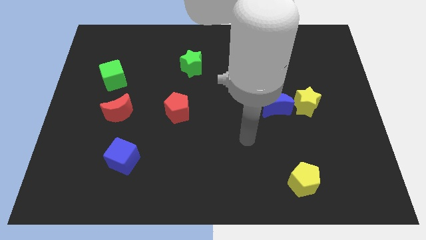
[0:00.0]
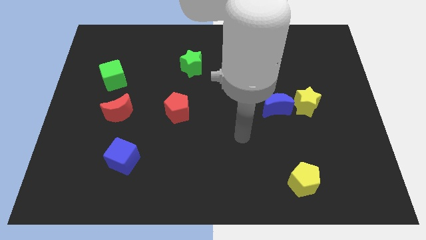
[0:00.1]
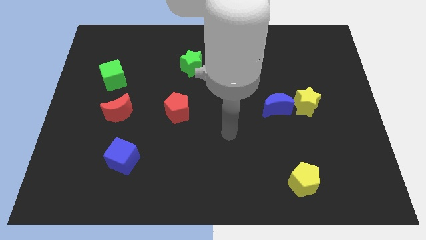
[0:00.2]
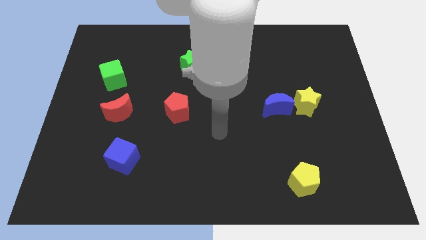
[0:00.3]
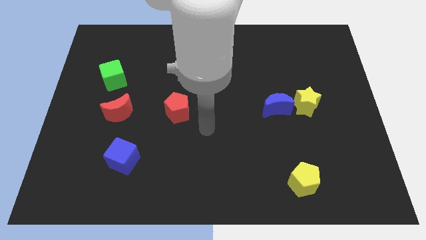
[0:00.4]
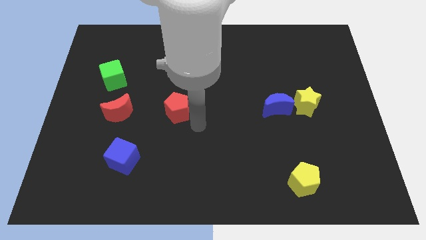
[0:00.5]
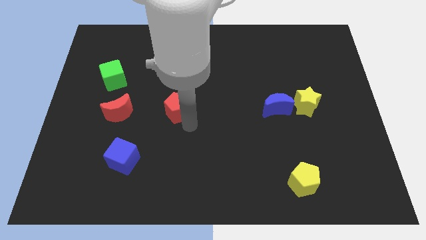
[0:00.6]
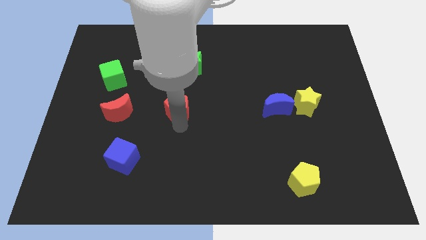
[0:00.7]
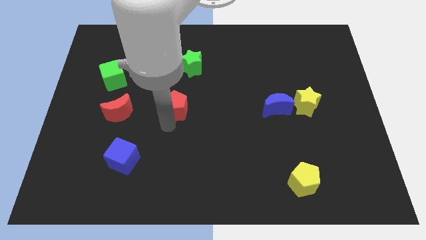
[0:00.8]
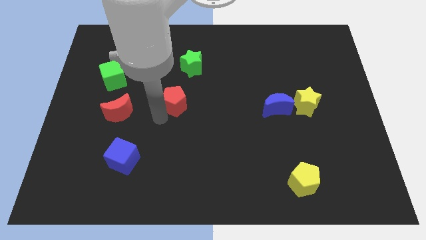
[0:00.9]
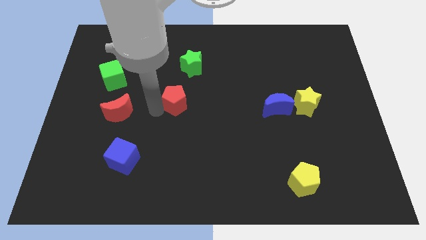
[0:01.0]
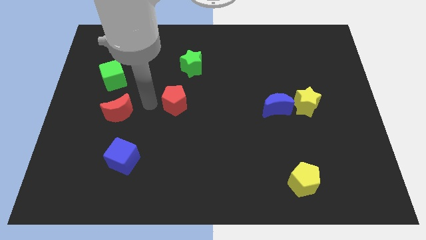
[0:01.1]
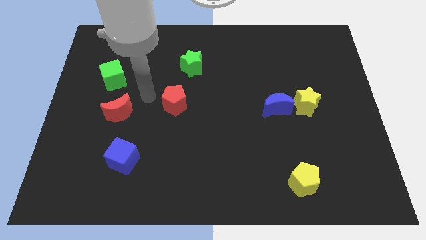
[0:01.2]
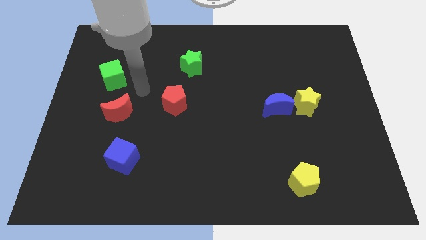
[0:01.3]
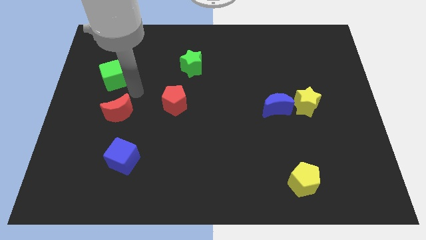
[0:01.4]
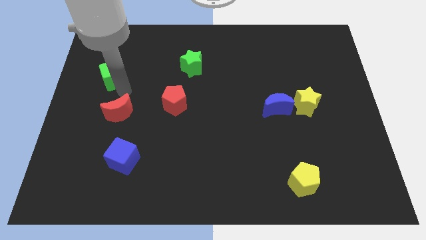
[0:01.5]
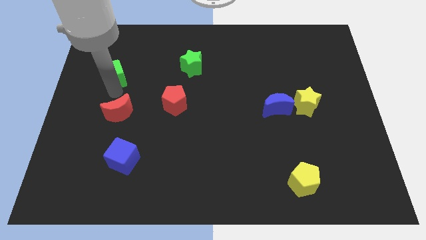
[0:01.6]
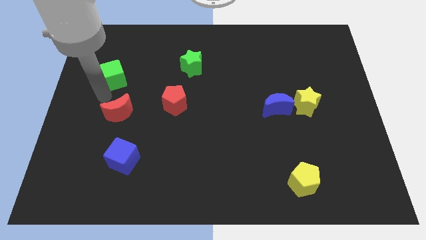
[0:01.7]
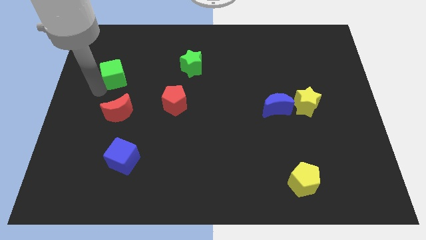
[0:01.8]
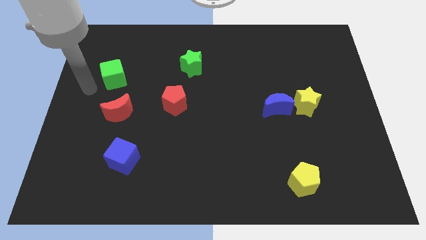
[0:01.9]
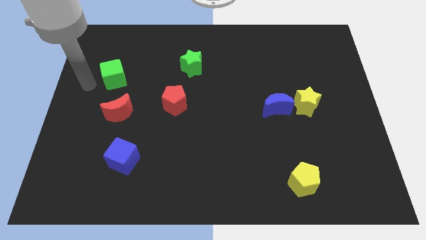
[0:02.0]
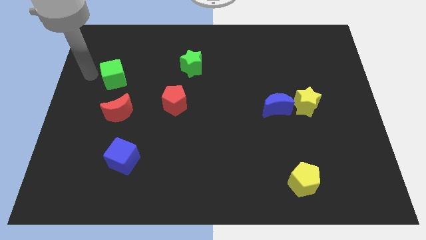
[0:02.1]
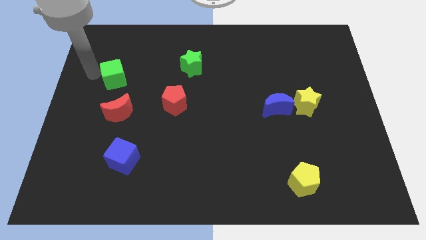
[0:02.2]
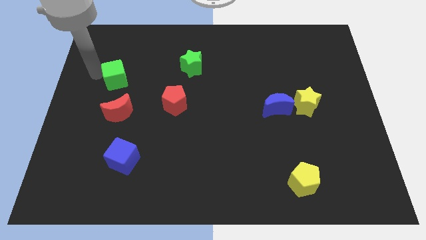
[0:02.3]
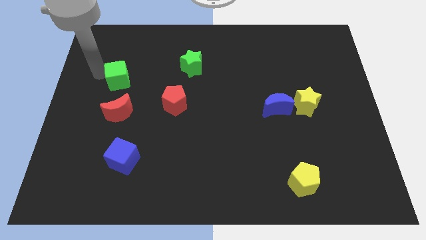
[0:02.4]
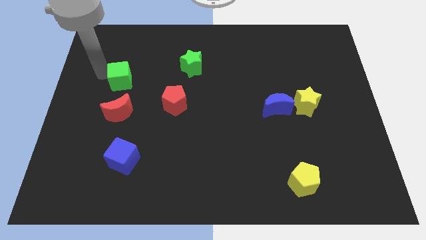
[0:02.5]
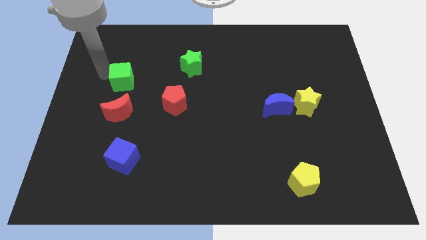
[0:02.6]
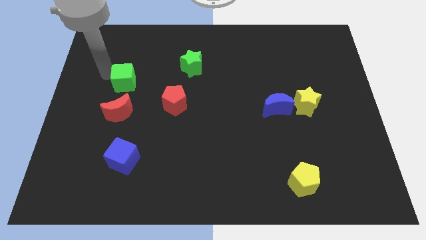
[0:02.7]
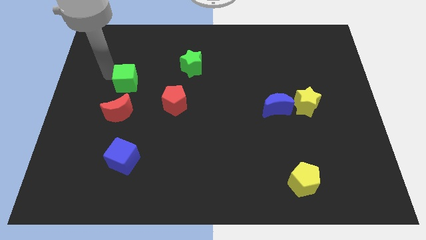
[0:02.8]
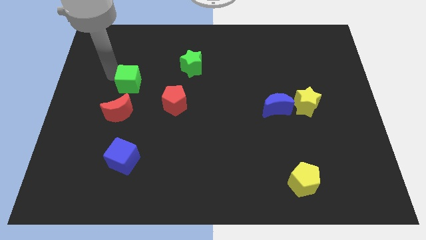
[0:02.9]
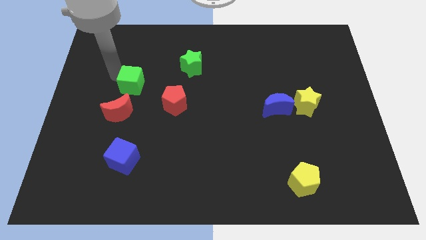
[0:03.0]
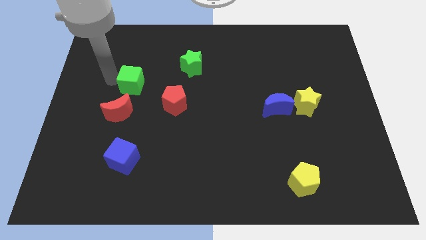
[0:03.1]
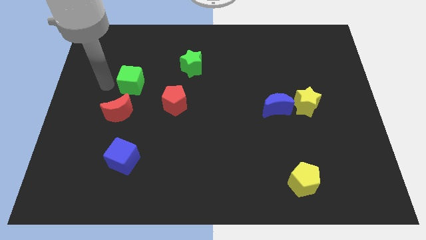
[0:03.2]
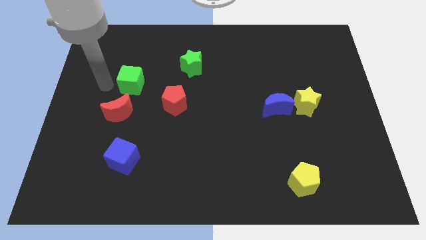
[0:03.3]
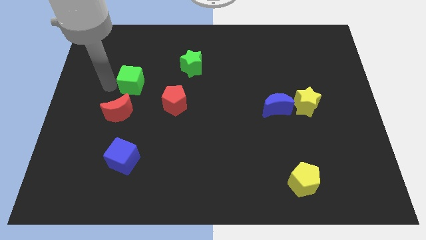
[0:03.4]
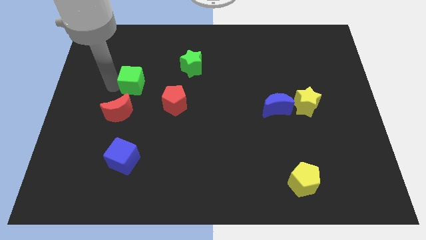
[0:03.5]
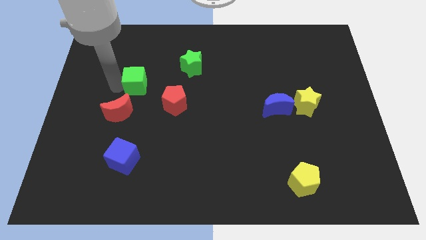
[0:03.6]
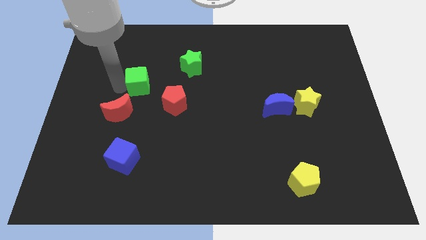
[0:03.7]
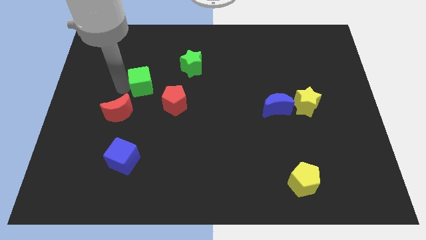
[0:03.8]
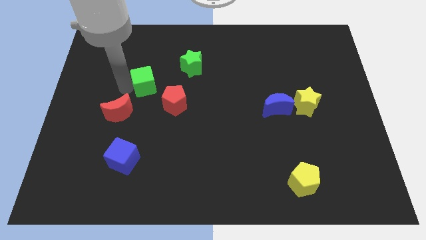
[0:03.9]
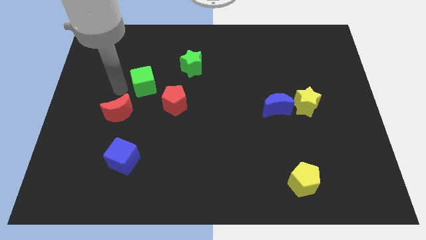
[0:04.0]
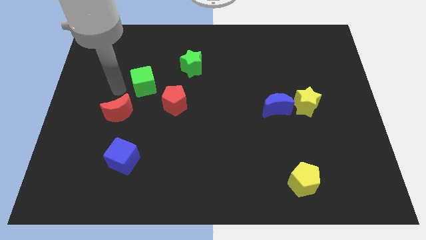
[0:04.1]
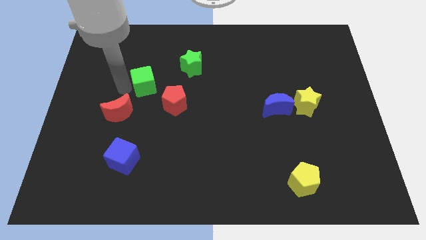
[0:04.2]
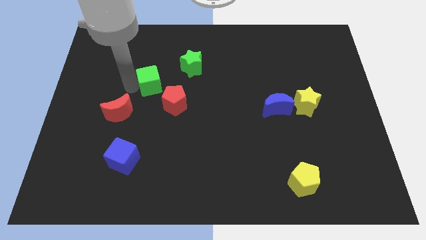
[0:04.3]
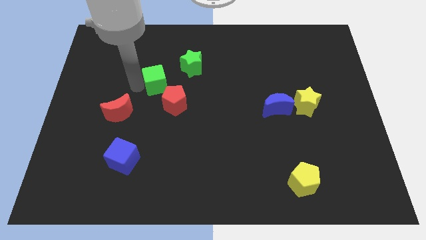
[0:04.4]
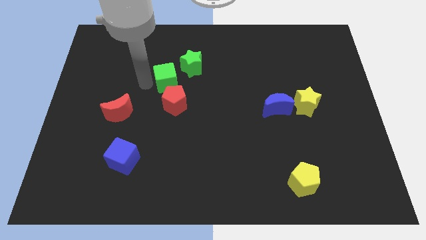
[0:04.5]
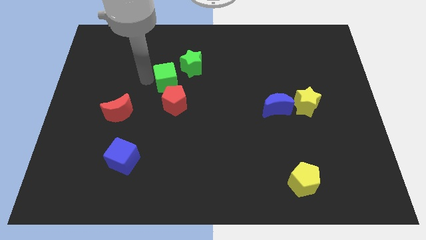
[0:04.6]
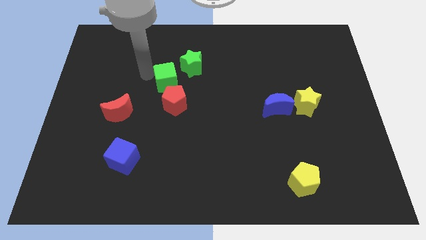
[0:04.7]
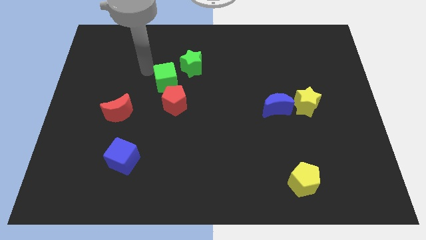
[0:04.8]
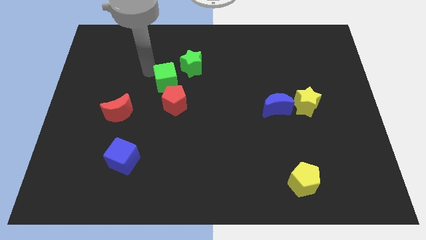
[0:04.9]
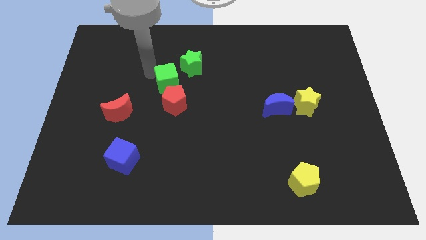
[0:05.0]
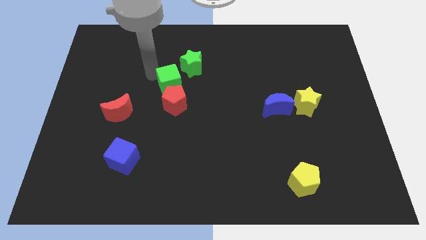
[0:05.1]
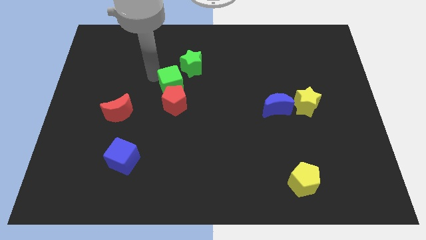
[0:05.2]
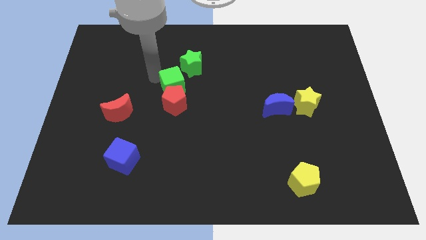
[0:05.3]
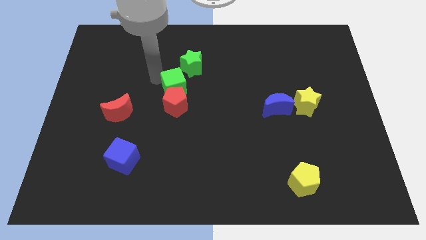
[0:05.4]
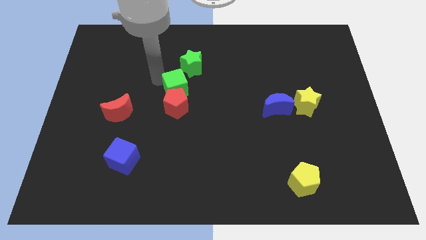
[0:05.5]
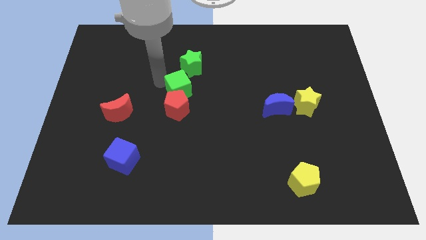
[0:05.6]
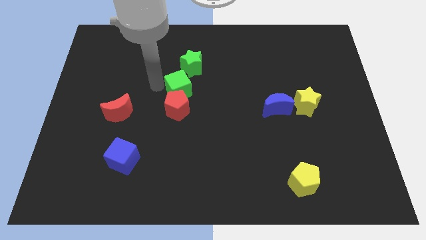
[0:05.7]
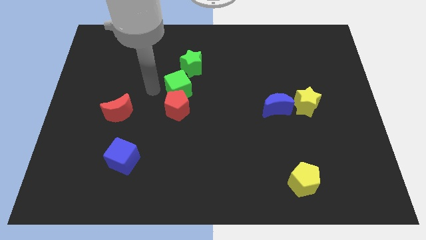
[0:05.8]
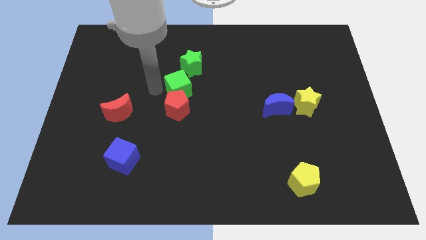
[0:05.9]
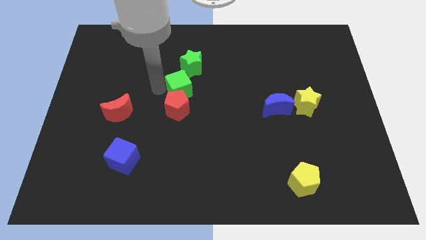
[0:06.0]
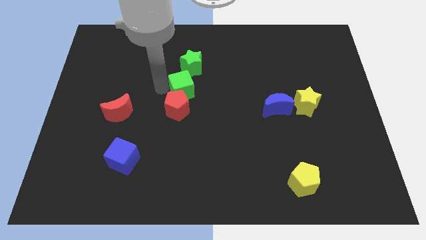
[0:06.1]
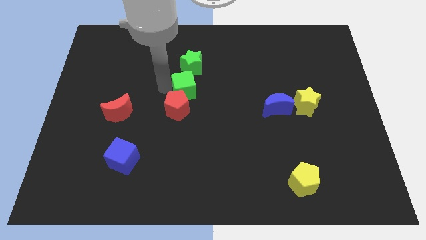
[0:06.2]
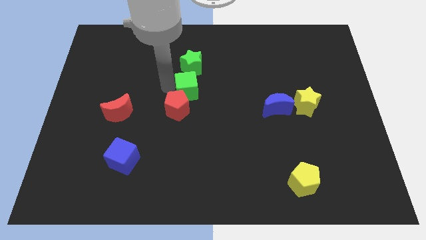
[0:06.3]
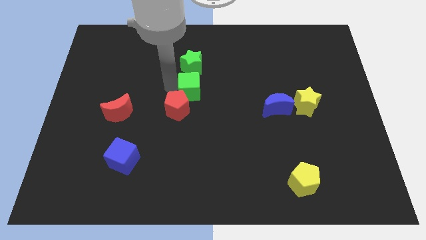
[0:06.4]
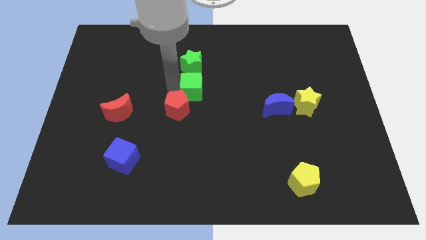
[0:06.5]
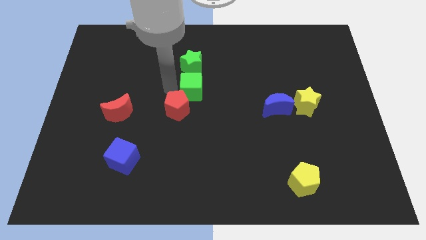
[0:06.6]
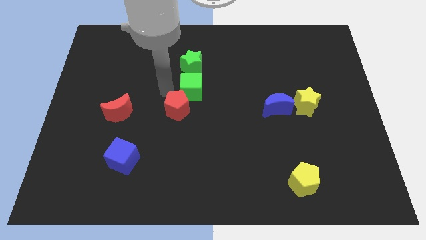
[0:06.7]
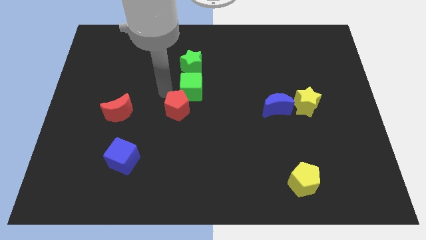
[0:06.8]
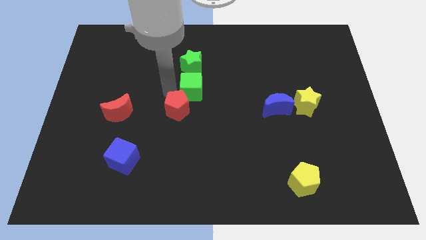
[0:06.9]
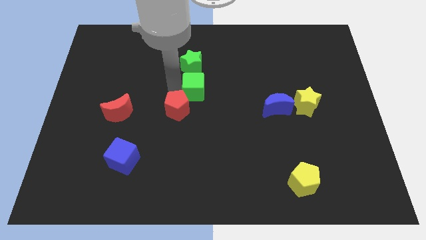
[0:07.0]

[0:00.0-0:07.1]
move the green cube right

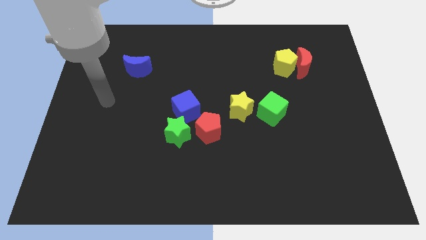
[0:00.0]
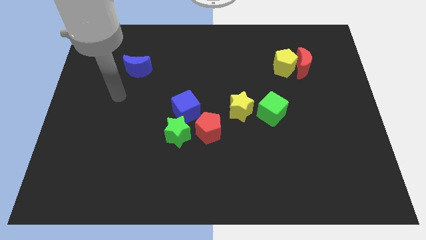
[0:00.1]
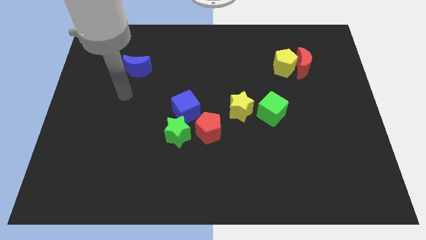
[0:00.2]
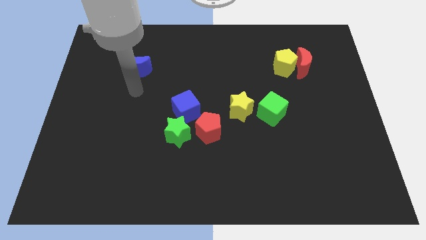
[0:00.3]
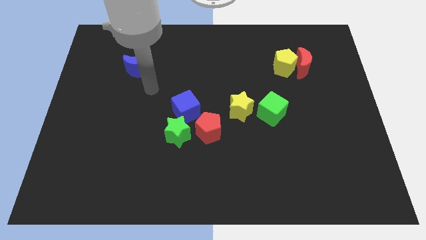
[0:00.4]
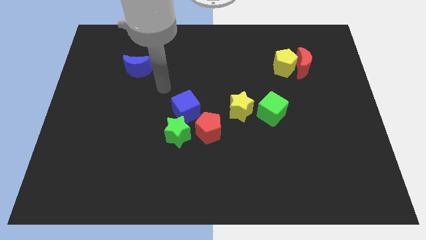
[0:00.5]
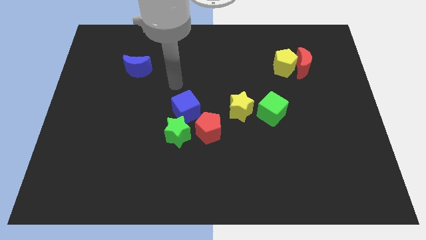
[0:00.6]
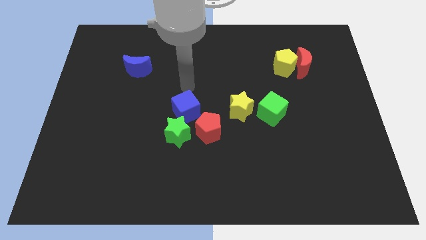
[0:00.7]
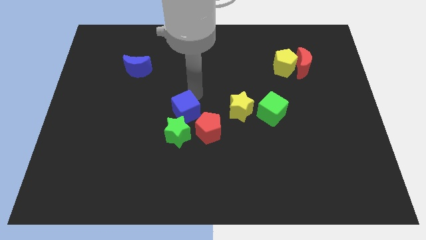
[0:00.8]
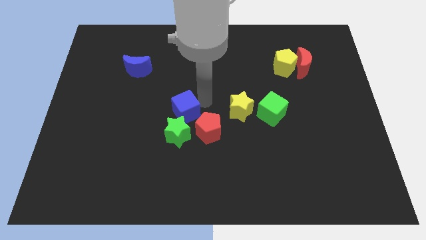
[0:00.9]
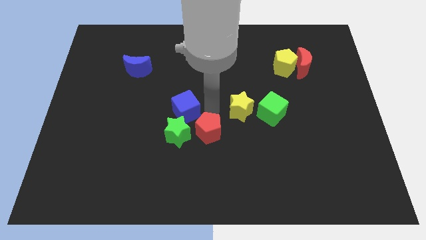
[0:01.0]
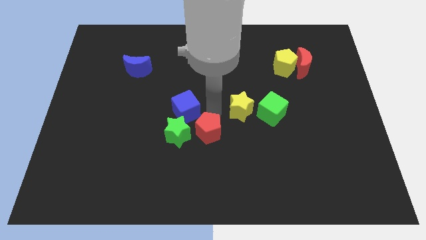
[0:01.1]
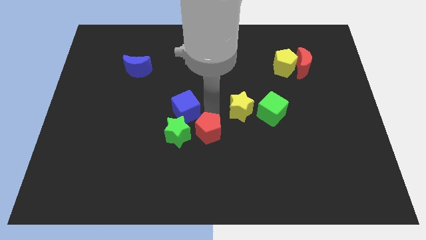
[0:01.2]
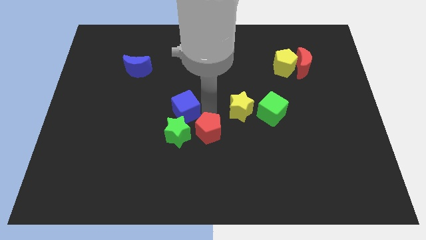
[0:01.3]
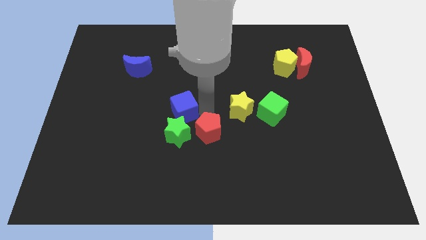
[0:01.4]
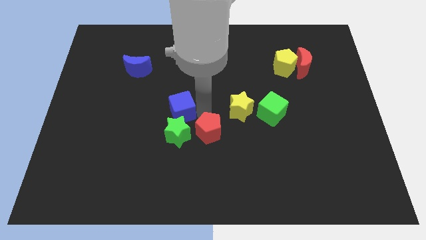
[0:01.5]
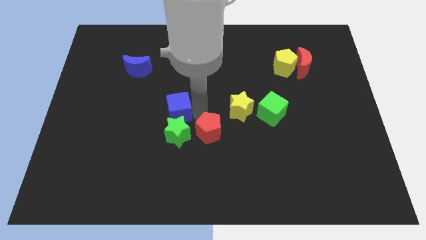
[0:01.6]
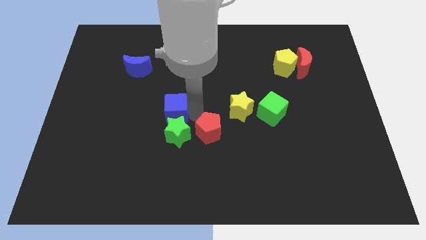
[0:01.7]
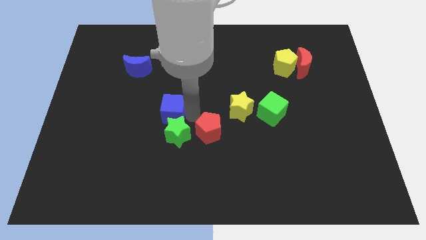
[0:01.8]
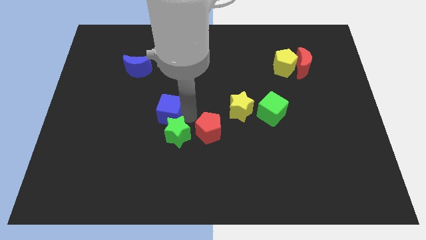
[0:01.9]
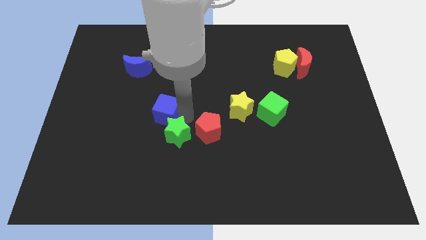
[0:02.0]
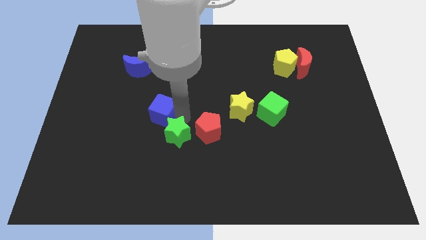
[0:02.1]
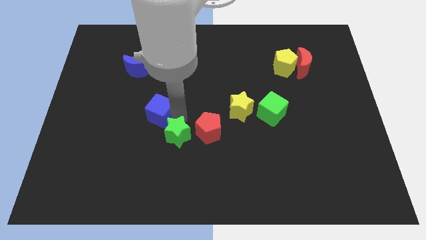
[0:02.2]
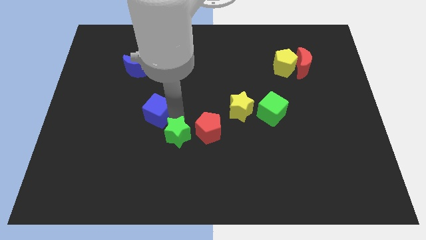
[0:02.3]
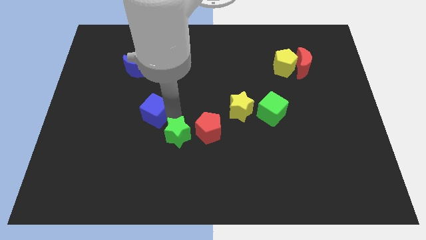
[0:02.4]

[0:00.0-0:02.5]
slightly move the blue cube to the left
